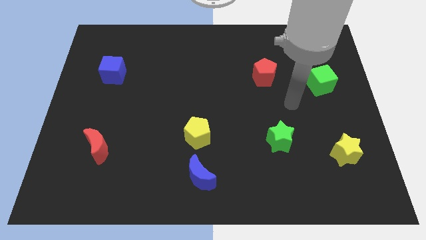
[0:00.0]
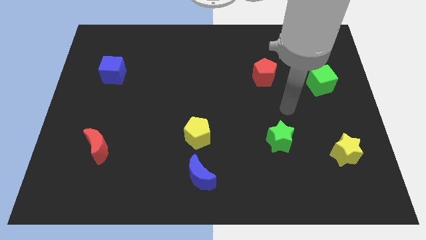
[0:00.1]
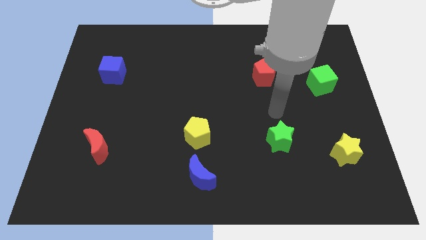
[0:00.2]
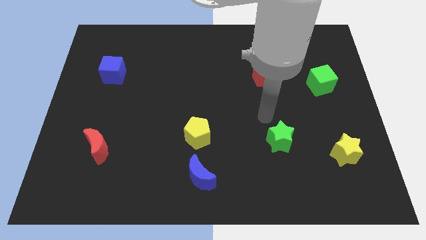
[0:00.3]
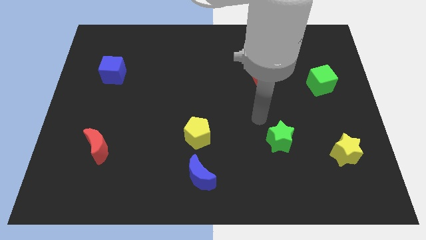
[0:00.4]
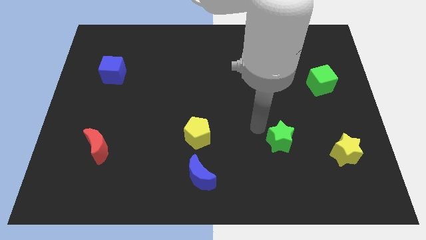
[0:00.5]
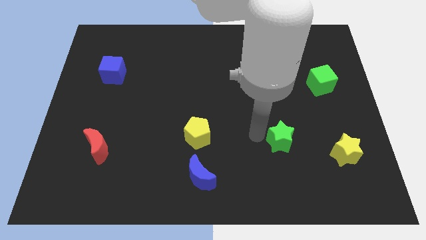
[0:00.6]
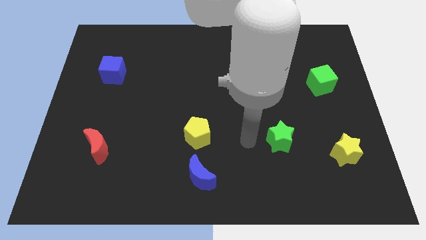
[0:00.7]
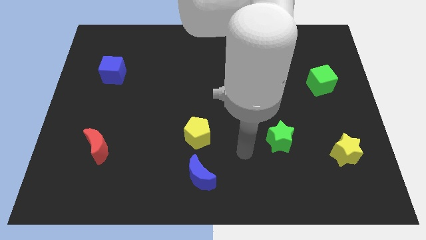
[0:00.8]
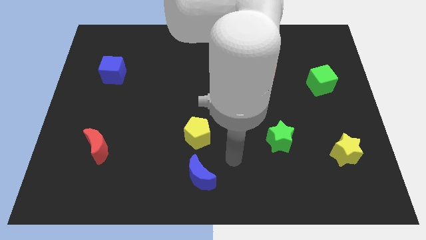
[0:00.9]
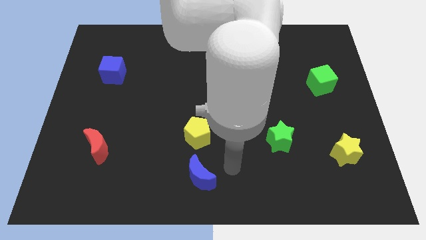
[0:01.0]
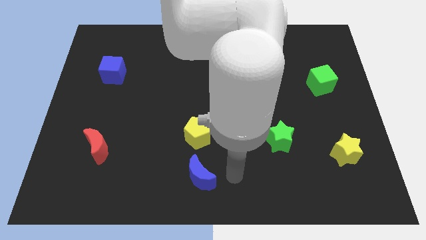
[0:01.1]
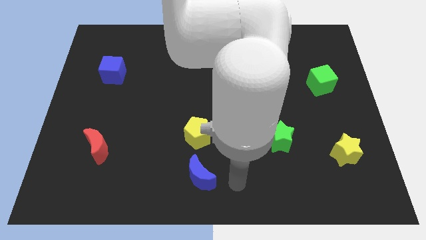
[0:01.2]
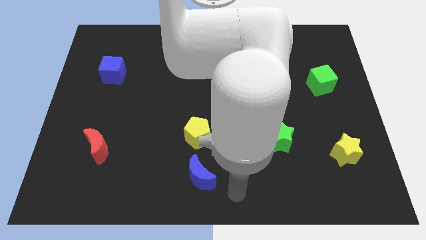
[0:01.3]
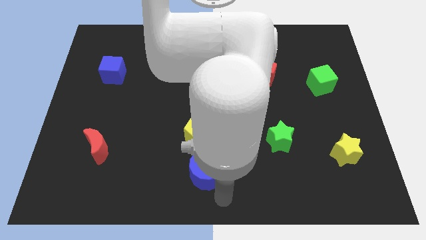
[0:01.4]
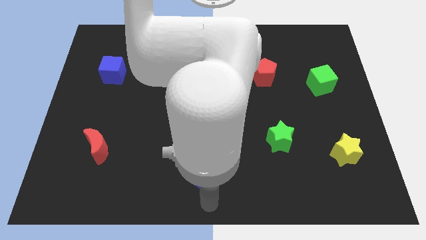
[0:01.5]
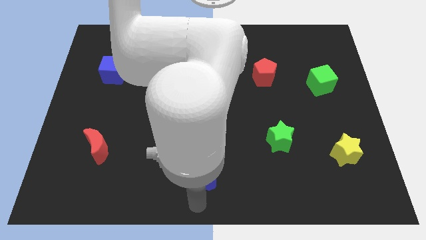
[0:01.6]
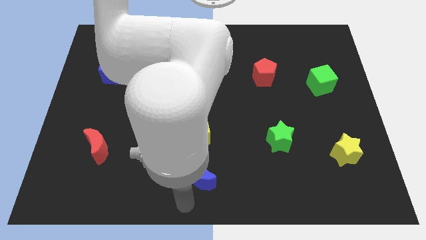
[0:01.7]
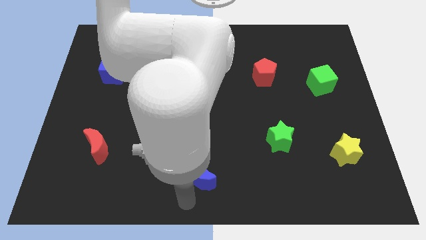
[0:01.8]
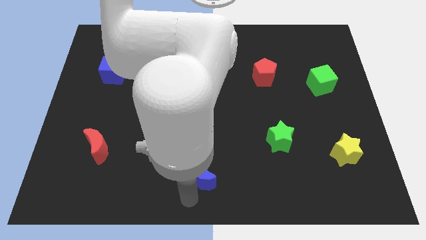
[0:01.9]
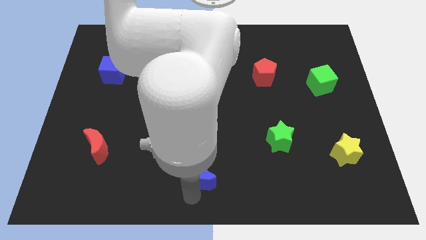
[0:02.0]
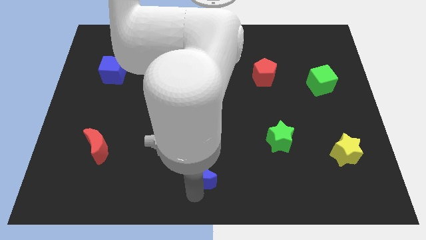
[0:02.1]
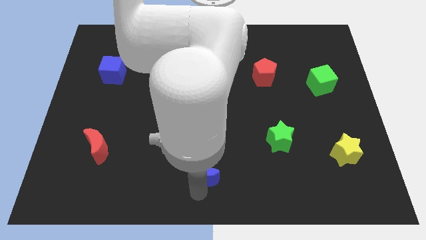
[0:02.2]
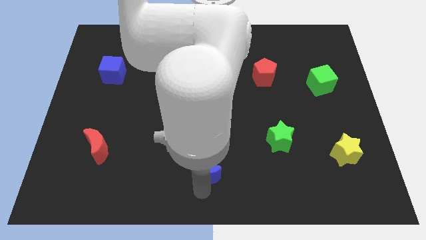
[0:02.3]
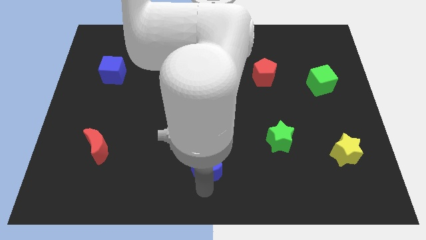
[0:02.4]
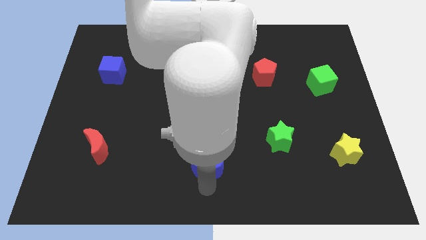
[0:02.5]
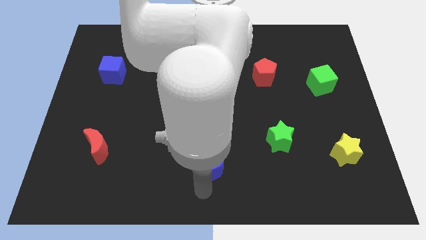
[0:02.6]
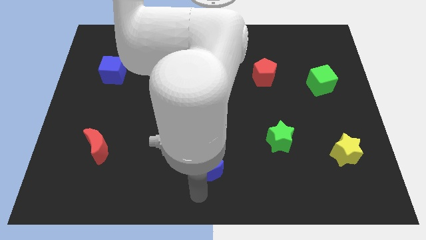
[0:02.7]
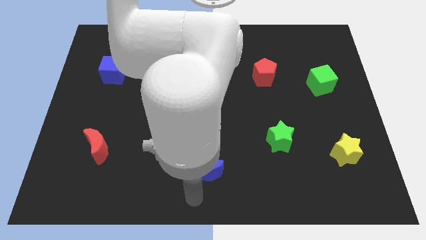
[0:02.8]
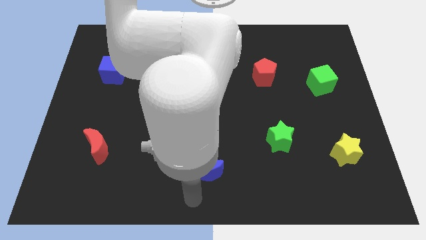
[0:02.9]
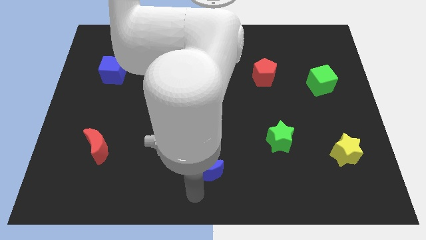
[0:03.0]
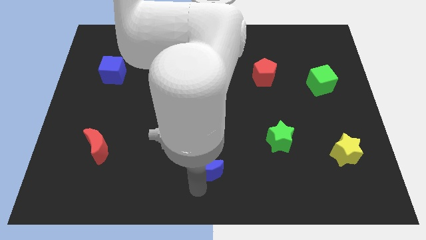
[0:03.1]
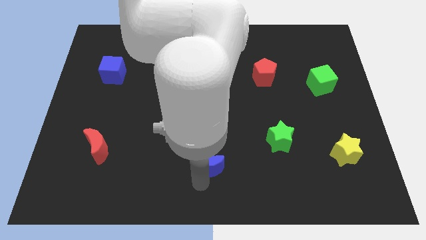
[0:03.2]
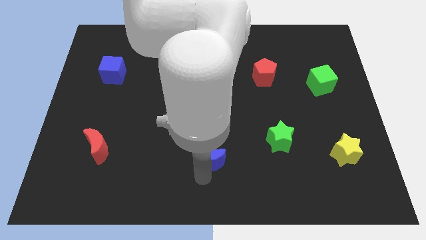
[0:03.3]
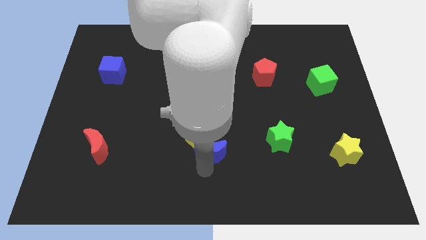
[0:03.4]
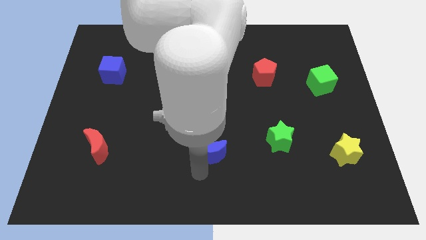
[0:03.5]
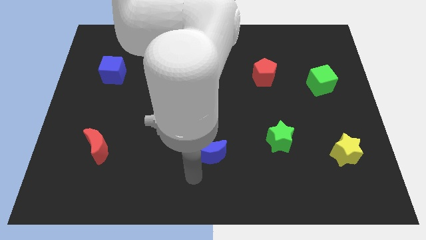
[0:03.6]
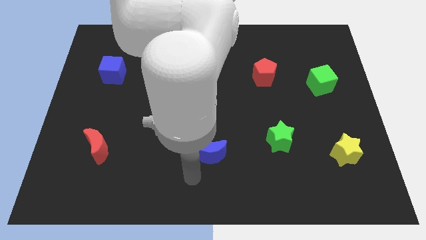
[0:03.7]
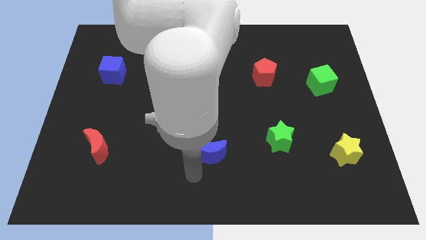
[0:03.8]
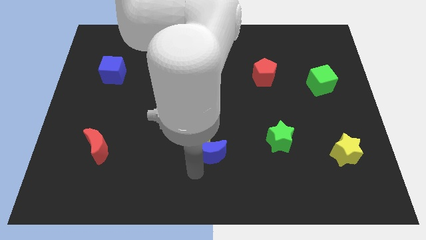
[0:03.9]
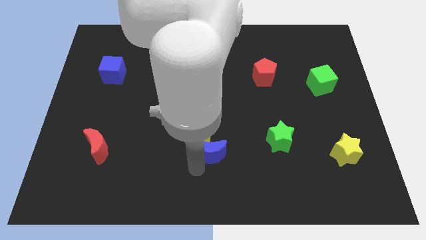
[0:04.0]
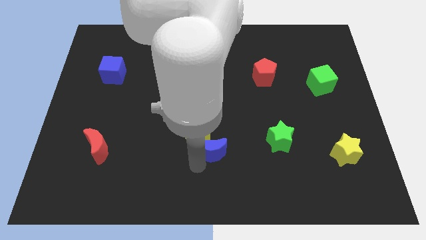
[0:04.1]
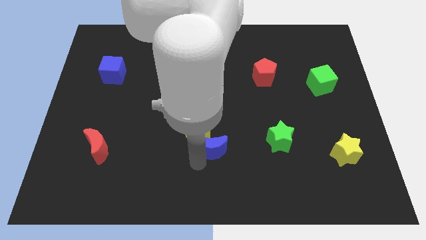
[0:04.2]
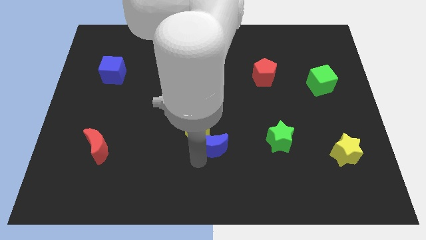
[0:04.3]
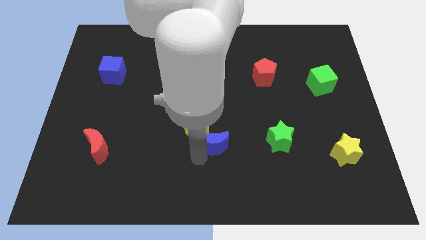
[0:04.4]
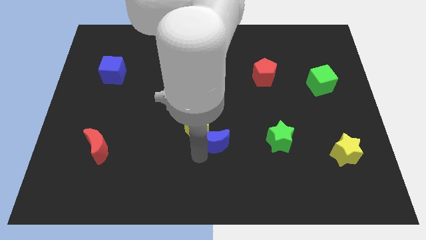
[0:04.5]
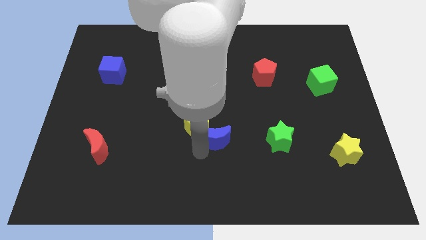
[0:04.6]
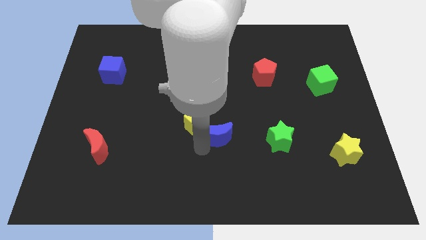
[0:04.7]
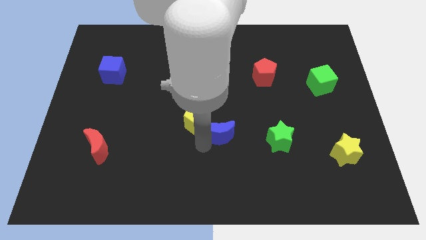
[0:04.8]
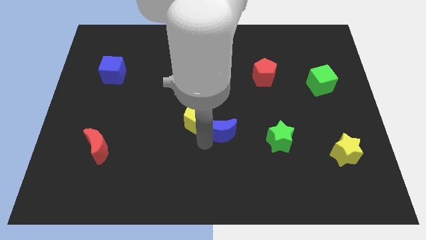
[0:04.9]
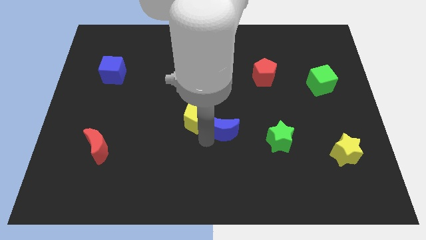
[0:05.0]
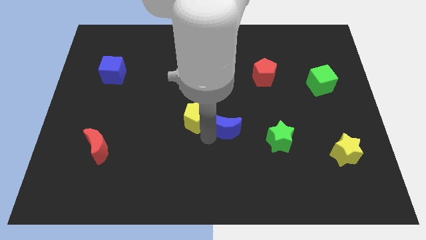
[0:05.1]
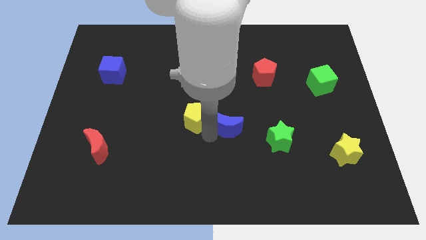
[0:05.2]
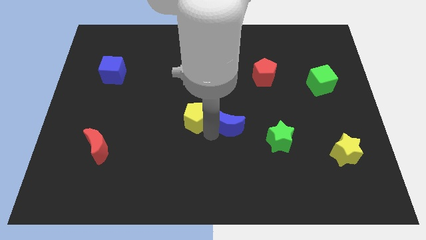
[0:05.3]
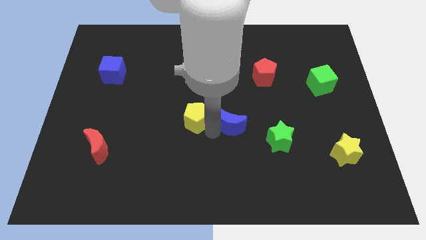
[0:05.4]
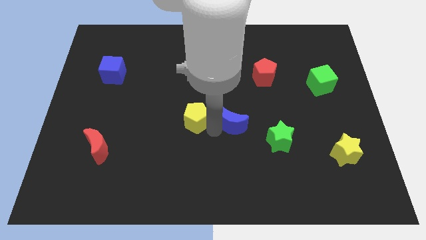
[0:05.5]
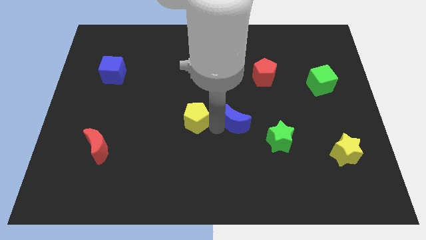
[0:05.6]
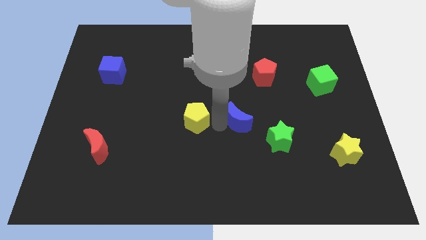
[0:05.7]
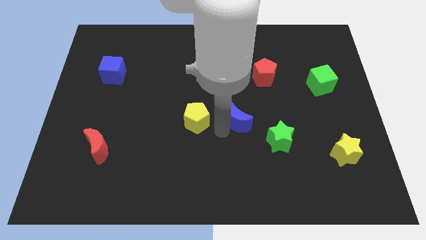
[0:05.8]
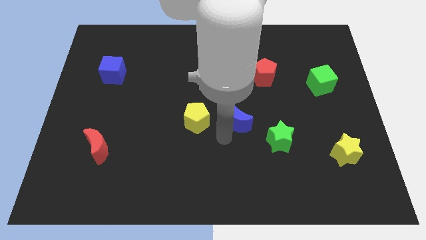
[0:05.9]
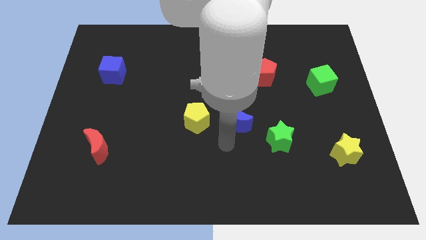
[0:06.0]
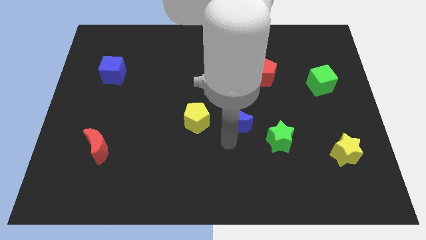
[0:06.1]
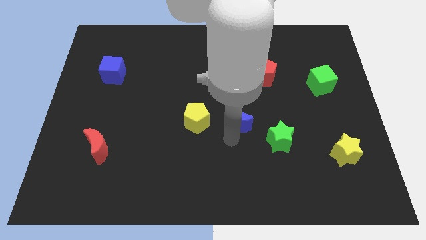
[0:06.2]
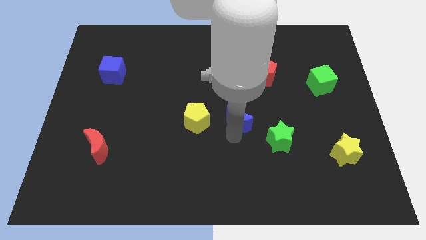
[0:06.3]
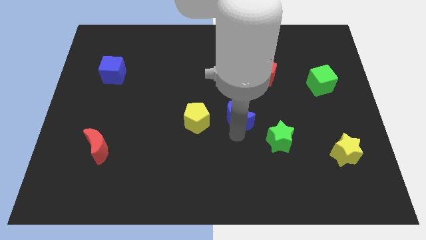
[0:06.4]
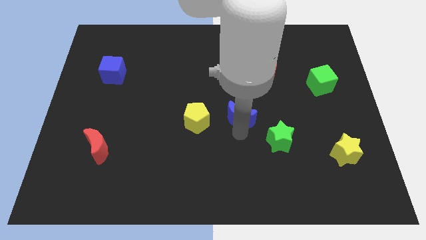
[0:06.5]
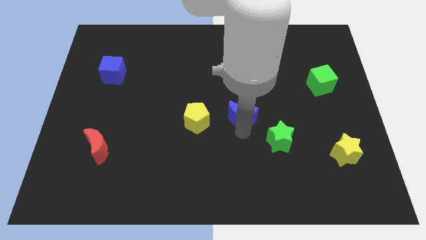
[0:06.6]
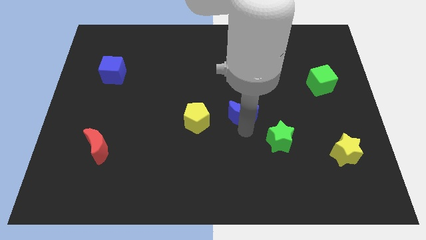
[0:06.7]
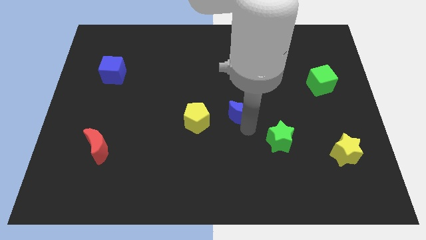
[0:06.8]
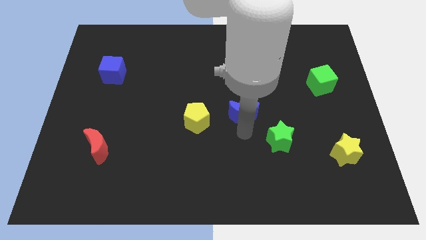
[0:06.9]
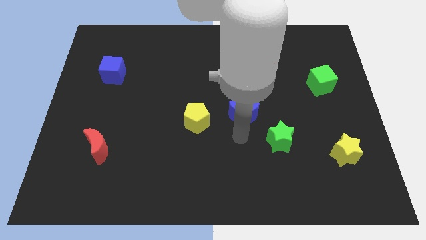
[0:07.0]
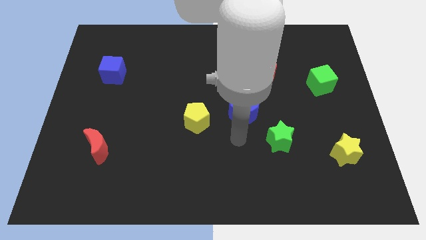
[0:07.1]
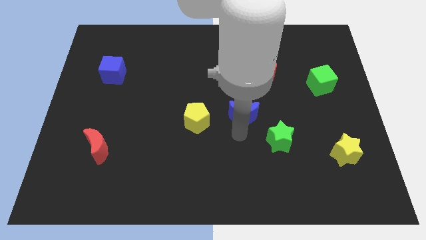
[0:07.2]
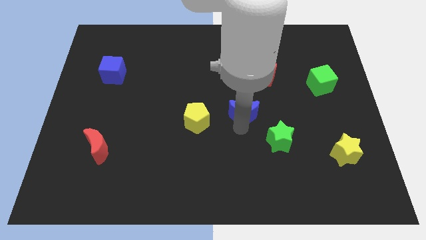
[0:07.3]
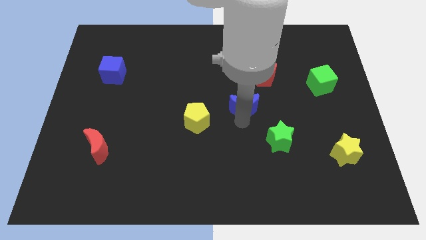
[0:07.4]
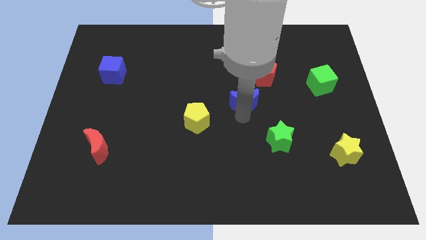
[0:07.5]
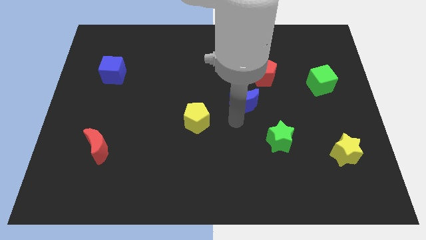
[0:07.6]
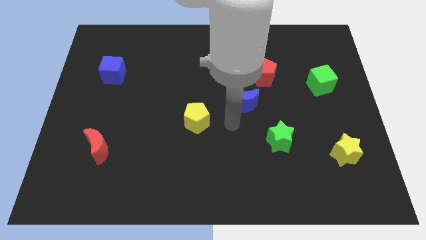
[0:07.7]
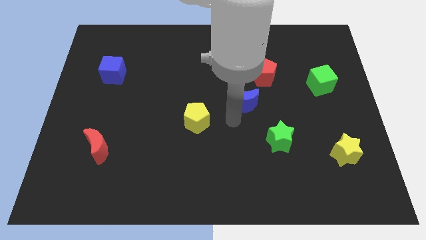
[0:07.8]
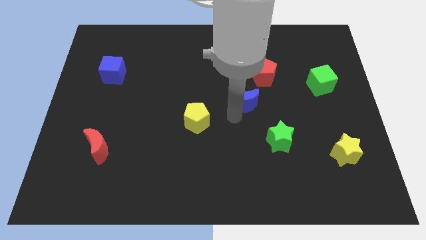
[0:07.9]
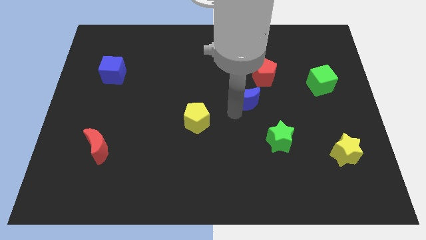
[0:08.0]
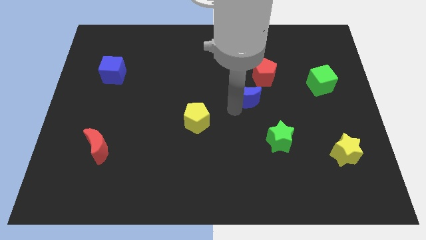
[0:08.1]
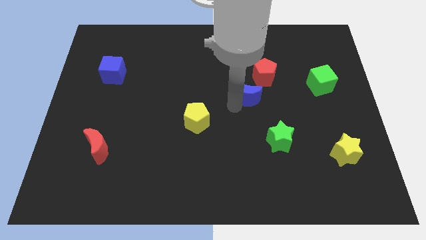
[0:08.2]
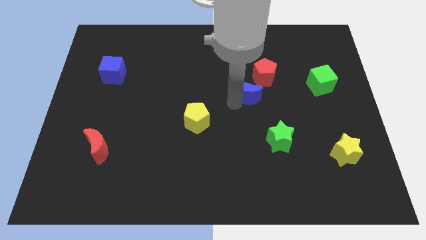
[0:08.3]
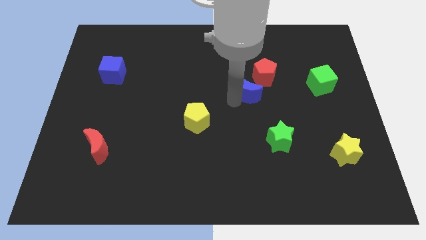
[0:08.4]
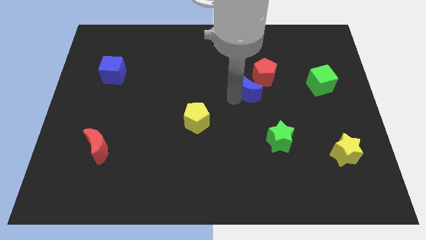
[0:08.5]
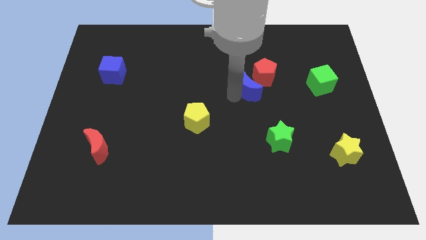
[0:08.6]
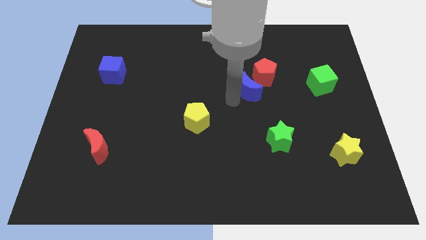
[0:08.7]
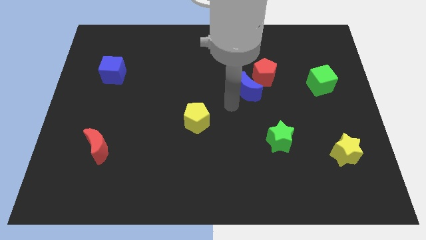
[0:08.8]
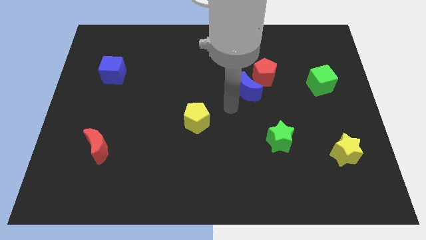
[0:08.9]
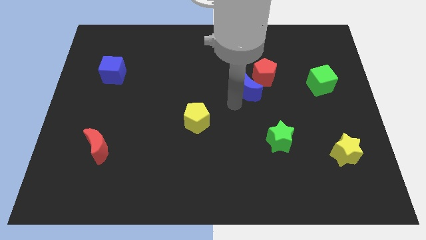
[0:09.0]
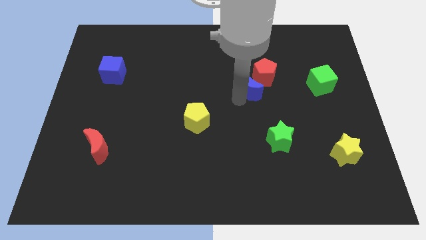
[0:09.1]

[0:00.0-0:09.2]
slide the blue moon towards the red pentagon
